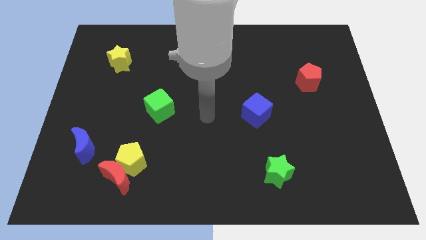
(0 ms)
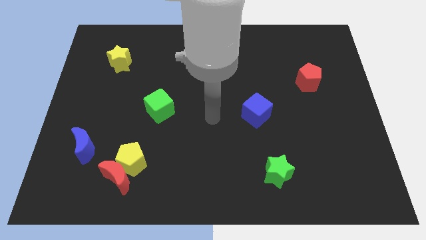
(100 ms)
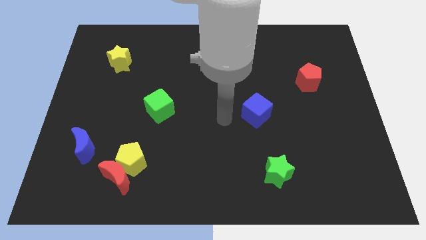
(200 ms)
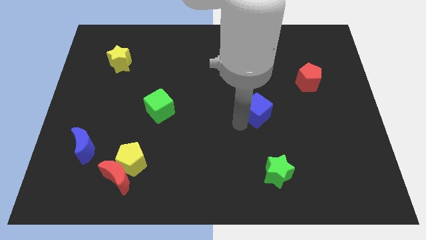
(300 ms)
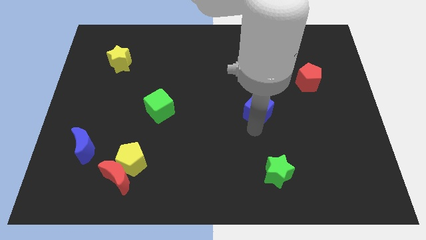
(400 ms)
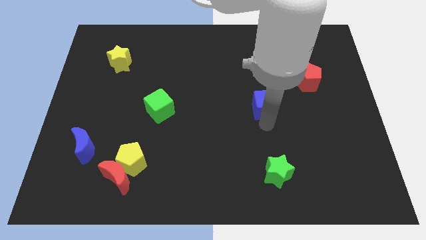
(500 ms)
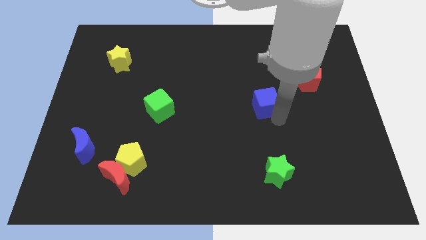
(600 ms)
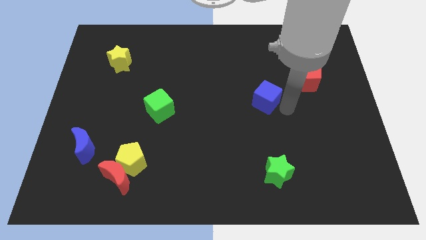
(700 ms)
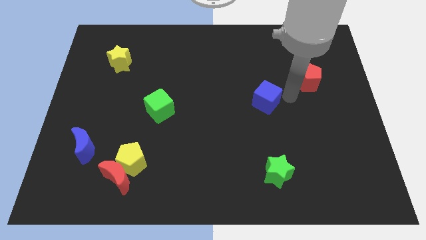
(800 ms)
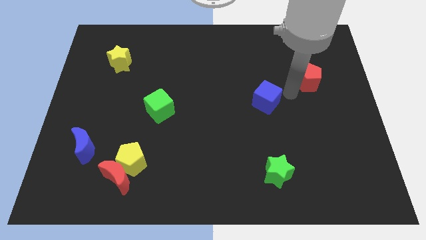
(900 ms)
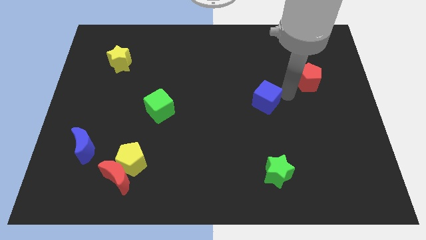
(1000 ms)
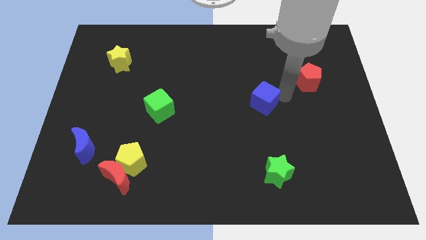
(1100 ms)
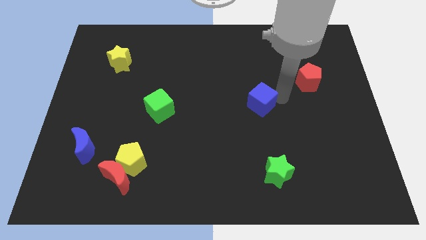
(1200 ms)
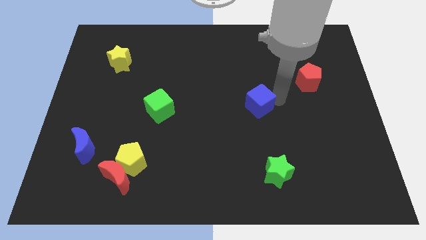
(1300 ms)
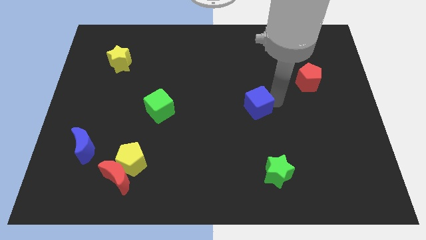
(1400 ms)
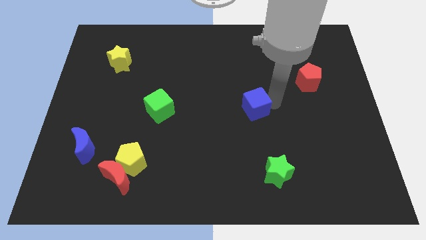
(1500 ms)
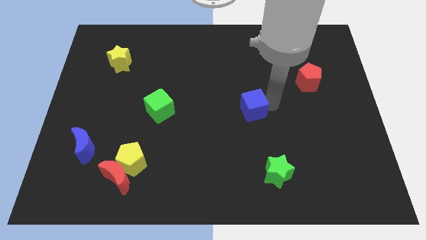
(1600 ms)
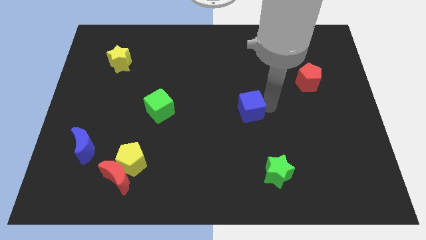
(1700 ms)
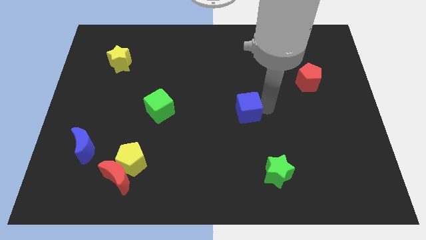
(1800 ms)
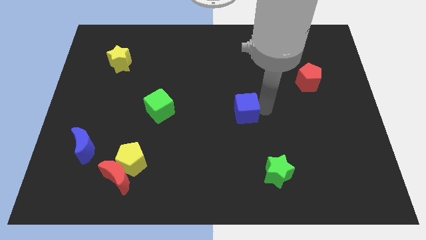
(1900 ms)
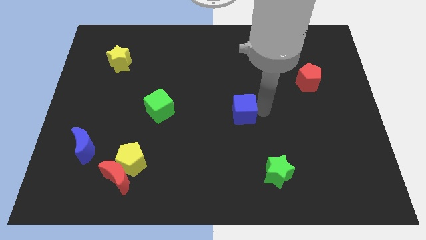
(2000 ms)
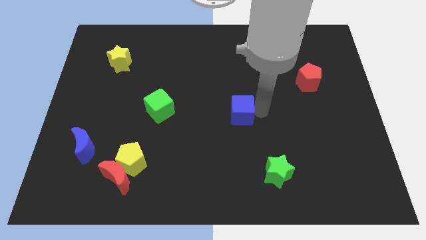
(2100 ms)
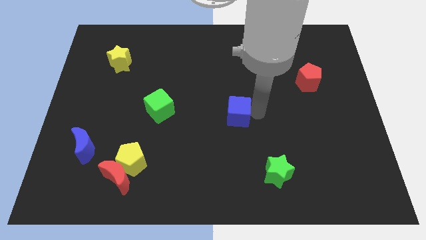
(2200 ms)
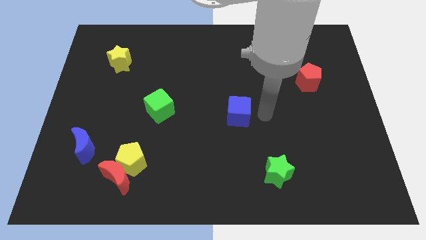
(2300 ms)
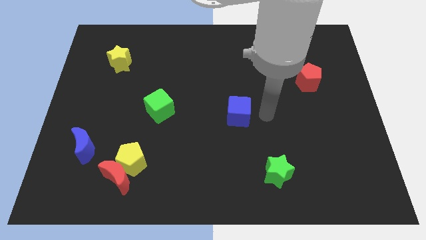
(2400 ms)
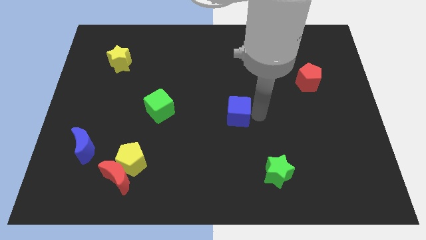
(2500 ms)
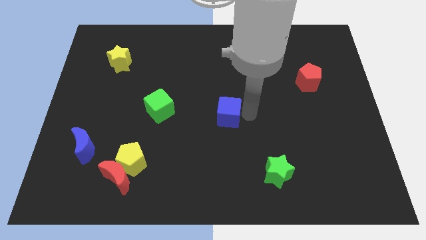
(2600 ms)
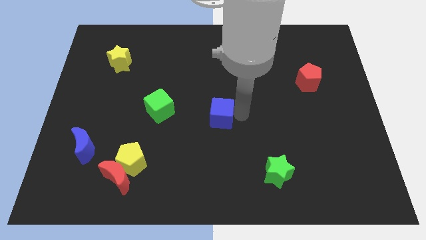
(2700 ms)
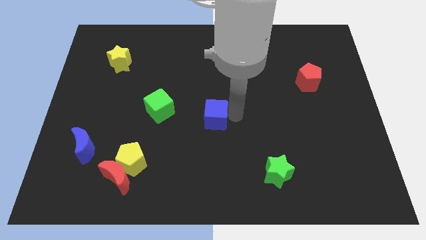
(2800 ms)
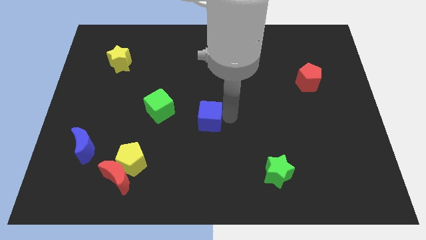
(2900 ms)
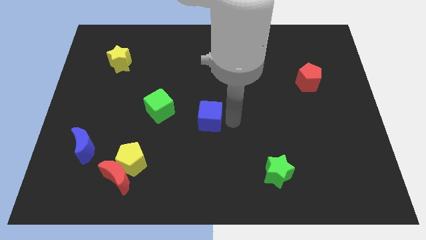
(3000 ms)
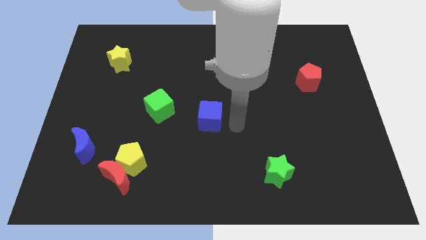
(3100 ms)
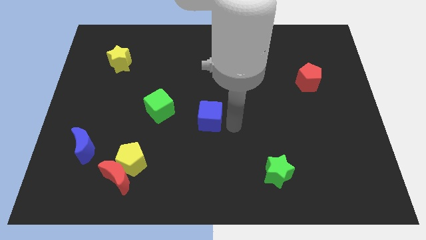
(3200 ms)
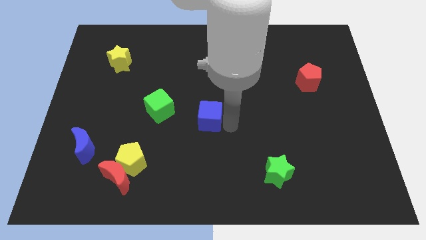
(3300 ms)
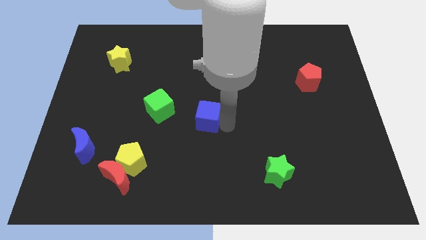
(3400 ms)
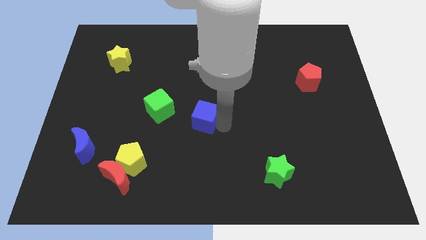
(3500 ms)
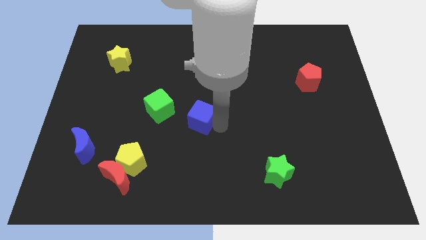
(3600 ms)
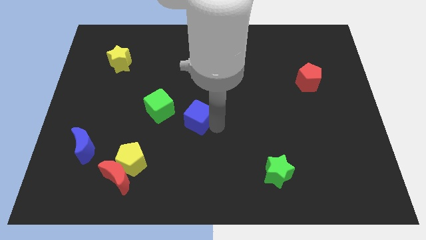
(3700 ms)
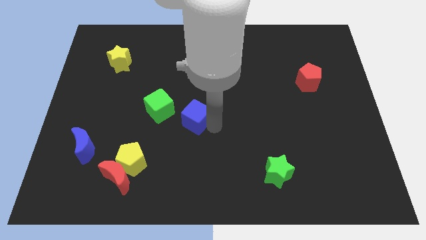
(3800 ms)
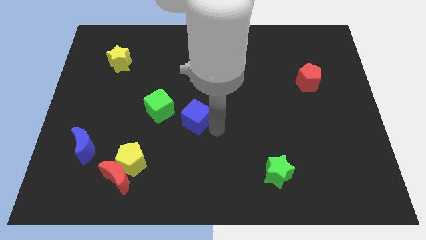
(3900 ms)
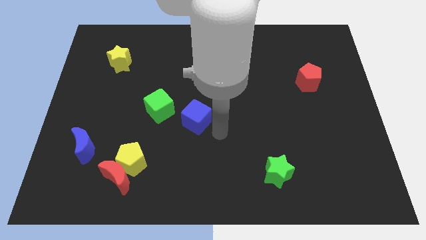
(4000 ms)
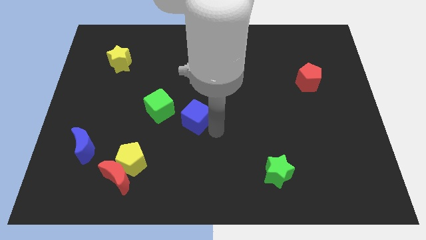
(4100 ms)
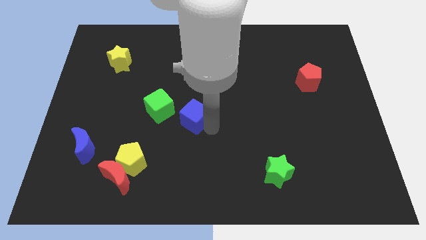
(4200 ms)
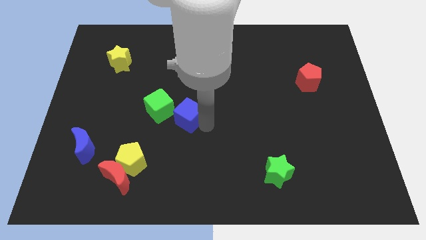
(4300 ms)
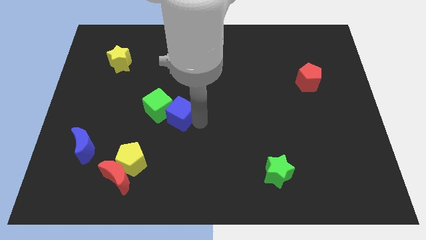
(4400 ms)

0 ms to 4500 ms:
push the blue cube to the green cube

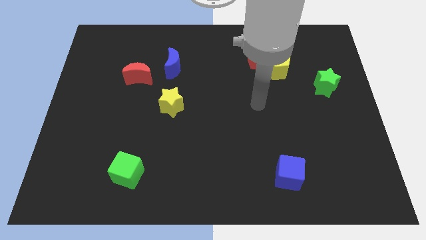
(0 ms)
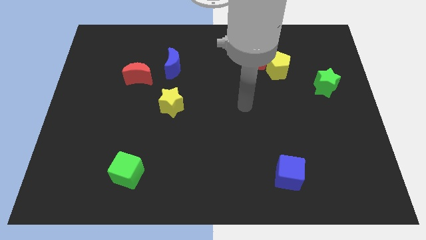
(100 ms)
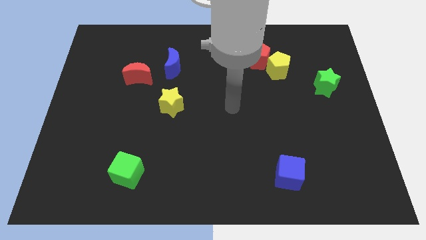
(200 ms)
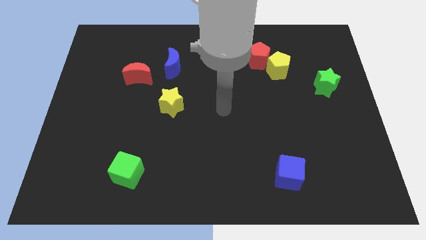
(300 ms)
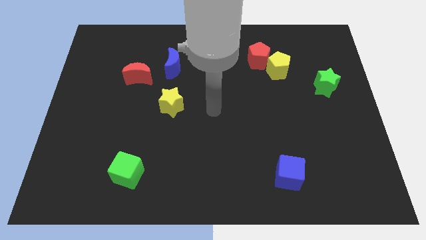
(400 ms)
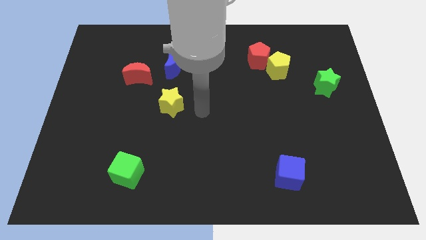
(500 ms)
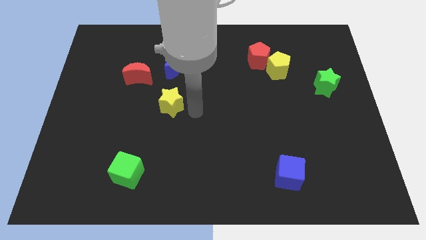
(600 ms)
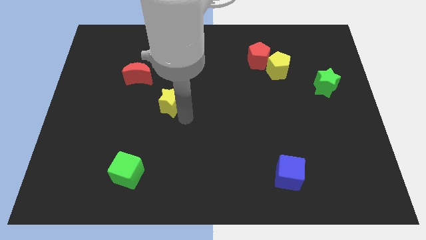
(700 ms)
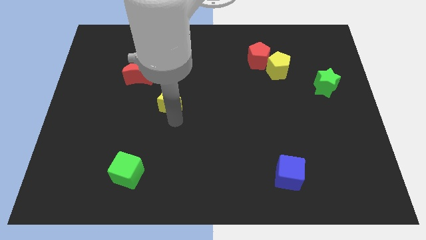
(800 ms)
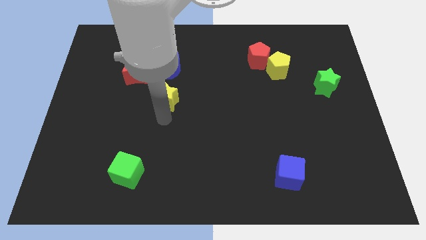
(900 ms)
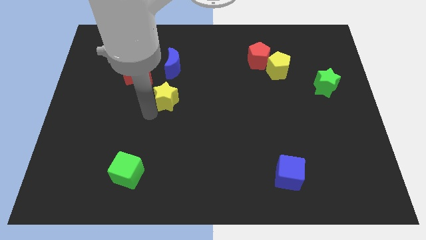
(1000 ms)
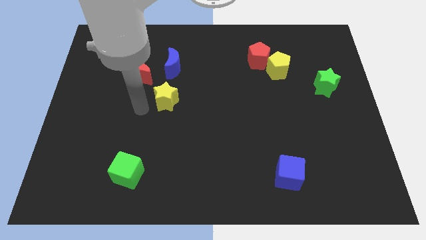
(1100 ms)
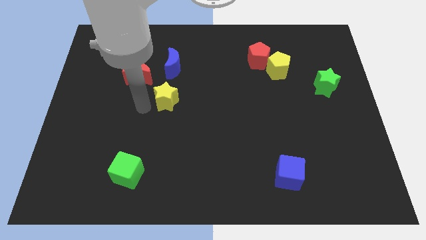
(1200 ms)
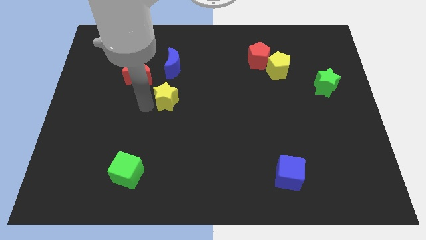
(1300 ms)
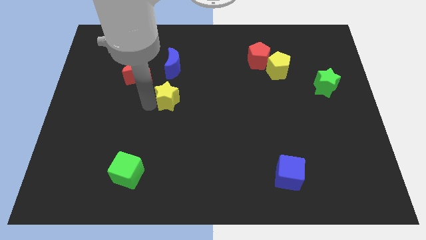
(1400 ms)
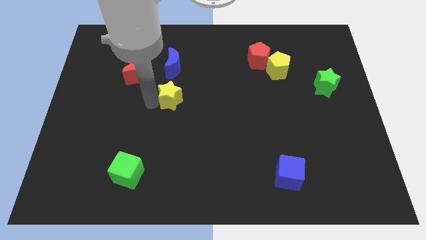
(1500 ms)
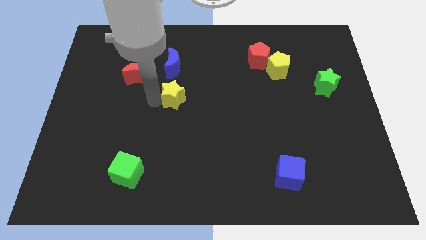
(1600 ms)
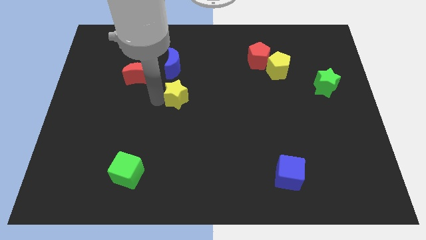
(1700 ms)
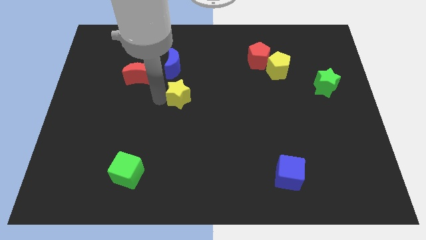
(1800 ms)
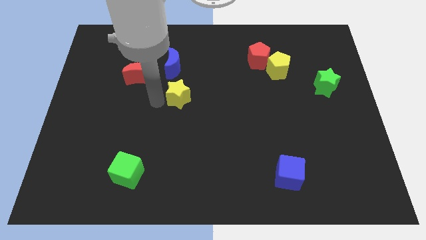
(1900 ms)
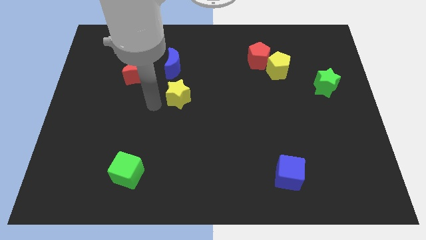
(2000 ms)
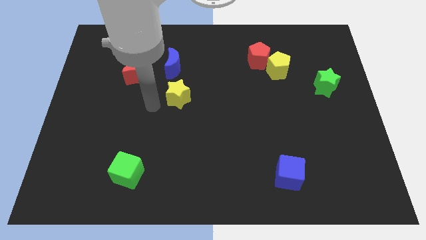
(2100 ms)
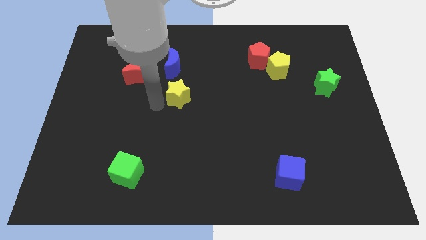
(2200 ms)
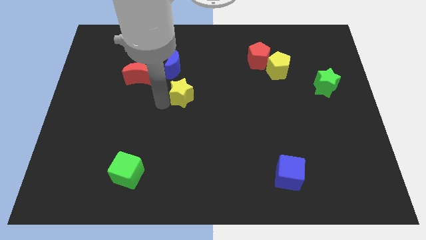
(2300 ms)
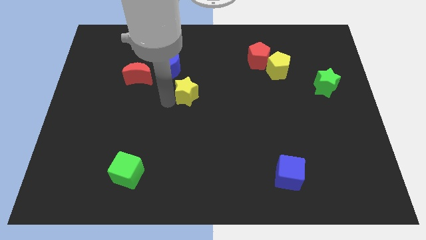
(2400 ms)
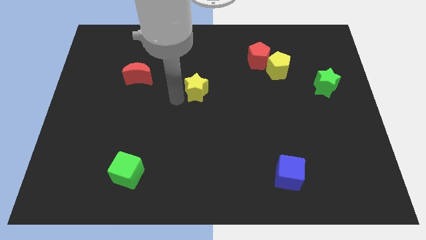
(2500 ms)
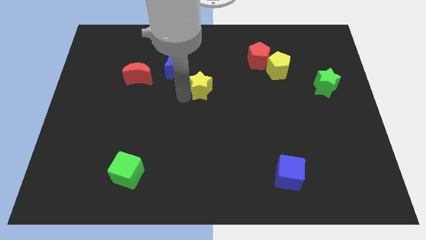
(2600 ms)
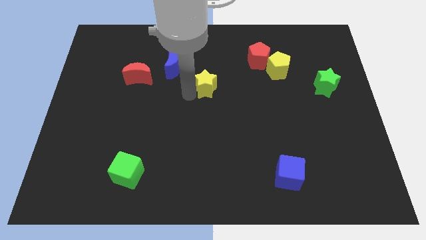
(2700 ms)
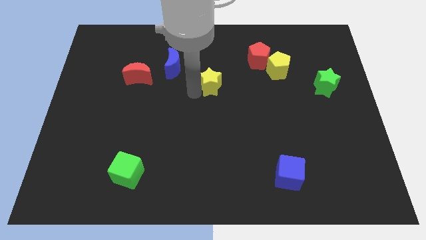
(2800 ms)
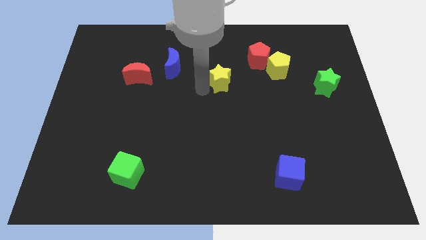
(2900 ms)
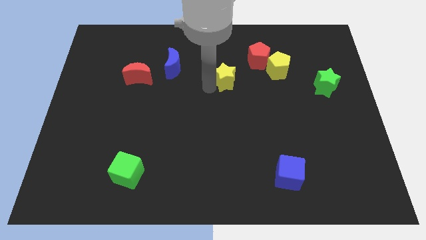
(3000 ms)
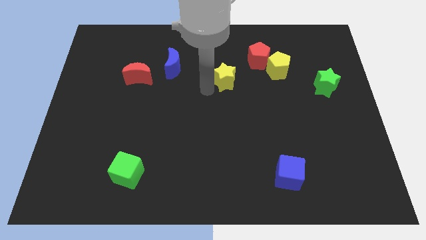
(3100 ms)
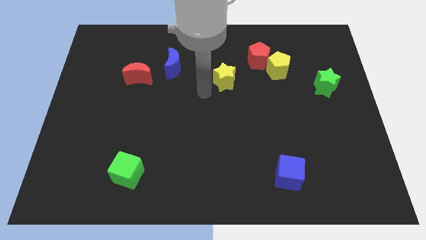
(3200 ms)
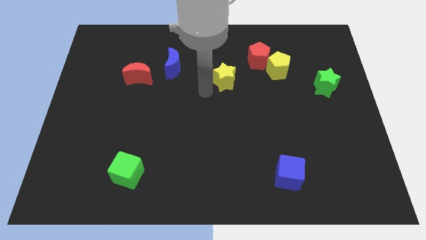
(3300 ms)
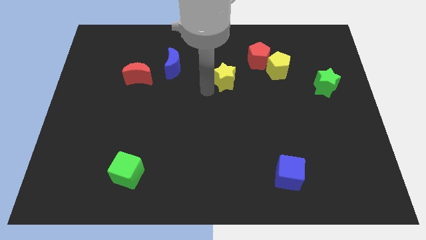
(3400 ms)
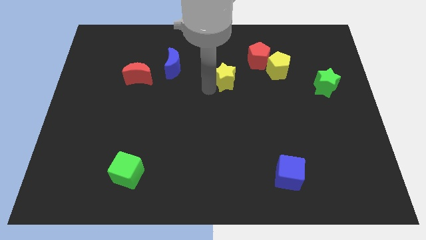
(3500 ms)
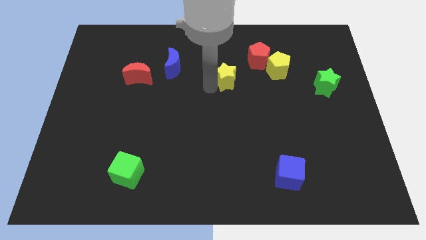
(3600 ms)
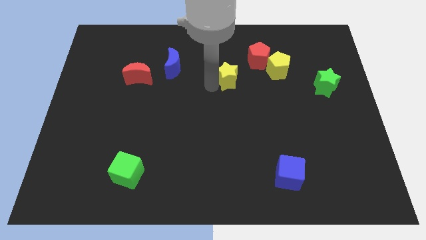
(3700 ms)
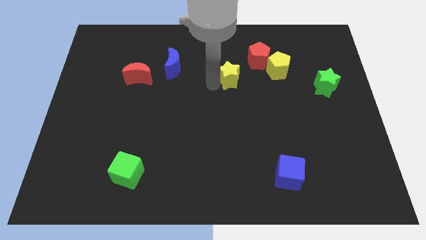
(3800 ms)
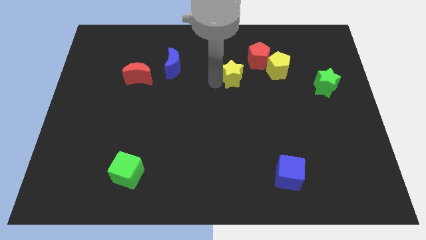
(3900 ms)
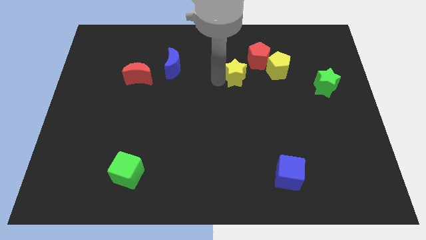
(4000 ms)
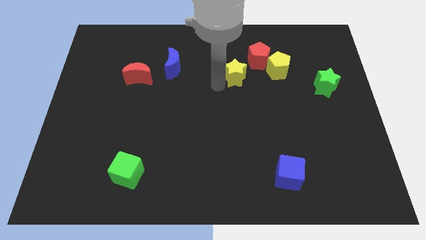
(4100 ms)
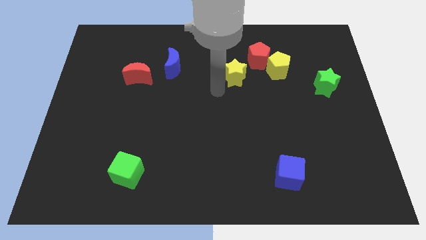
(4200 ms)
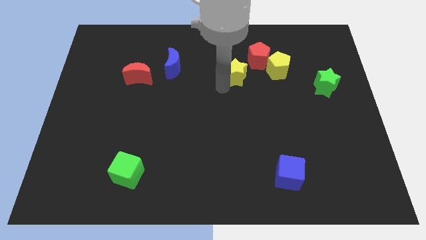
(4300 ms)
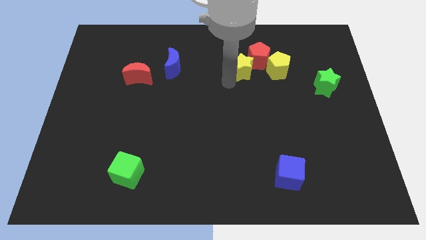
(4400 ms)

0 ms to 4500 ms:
push the yellow star close to the red pentagon
